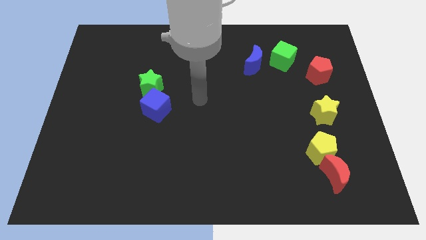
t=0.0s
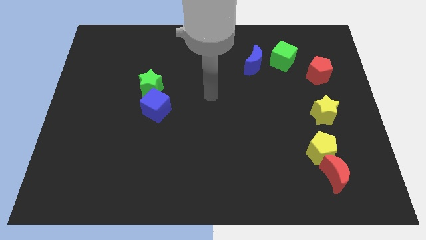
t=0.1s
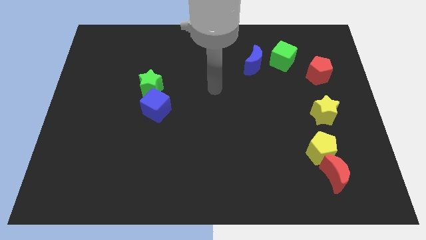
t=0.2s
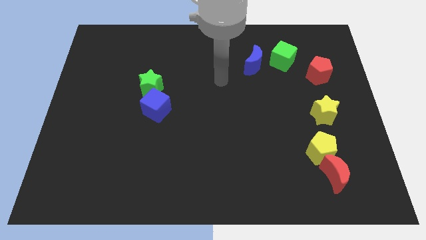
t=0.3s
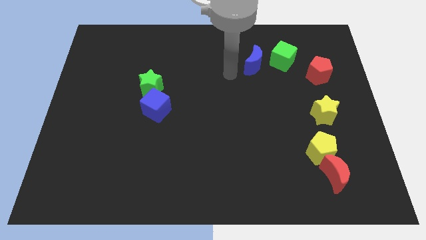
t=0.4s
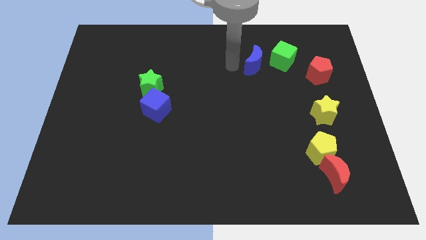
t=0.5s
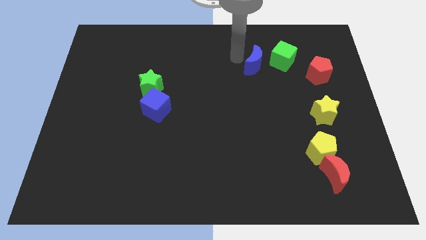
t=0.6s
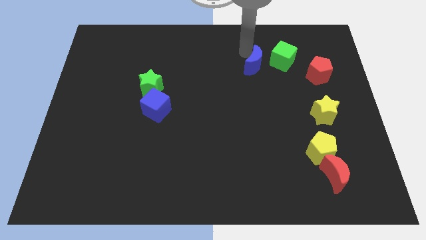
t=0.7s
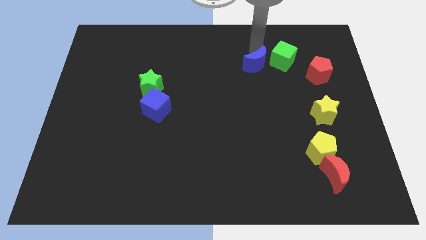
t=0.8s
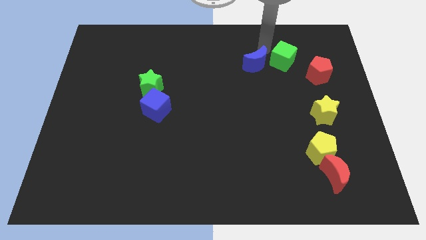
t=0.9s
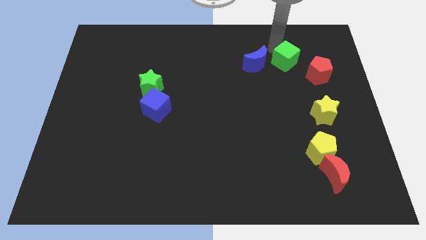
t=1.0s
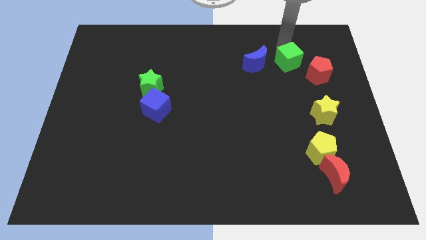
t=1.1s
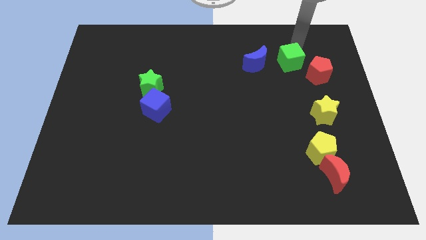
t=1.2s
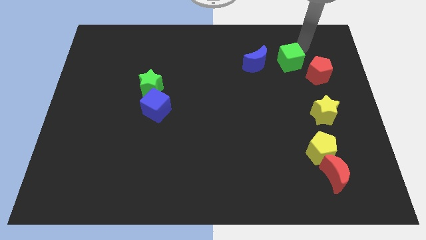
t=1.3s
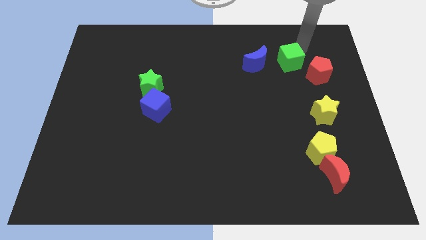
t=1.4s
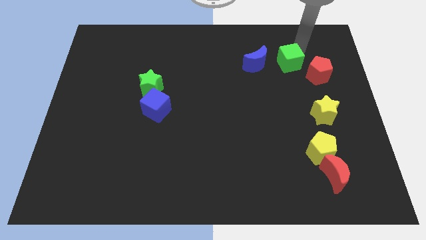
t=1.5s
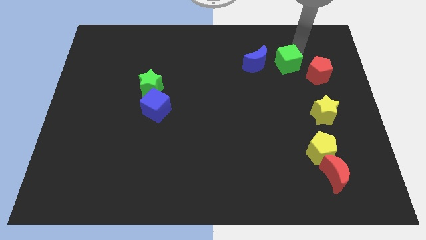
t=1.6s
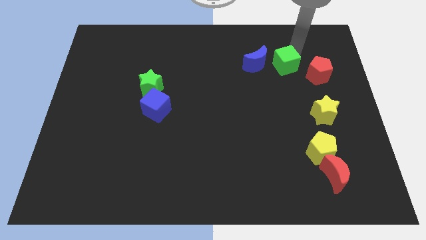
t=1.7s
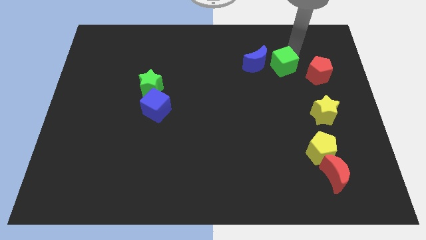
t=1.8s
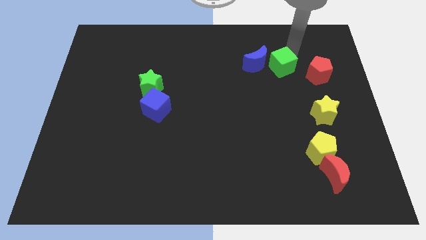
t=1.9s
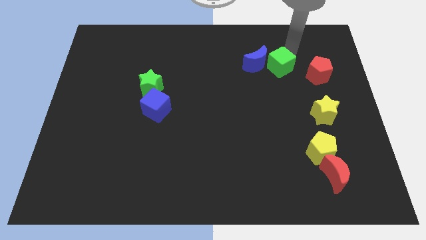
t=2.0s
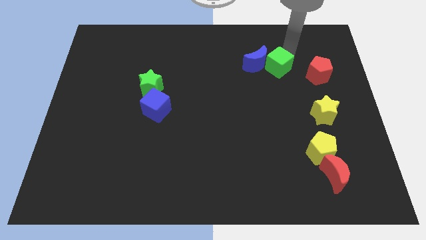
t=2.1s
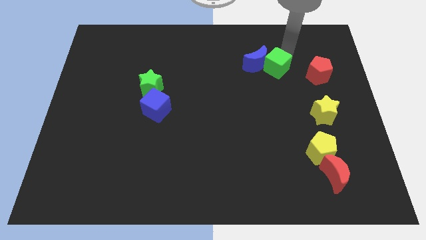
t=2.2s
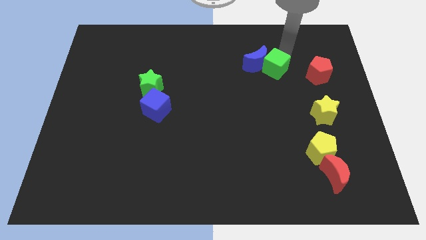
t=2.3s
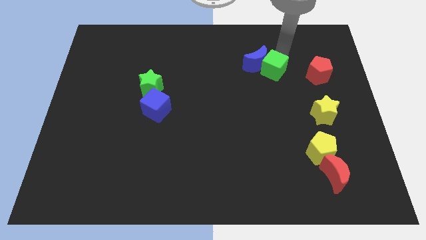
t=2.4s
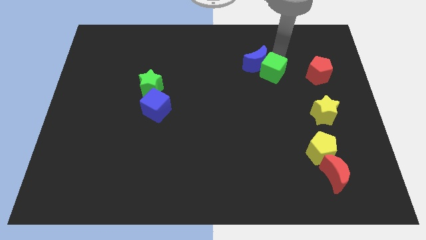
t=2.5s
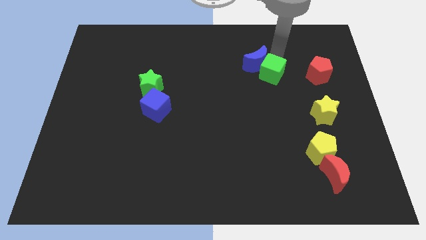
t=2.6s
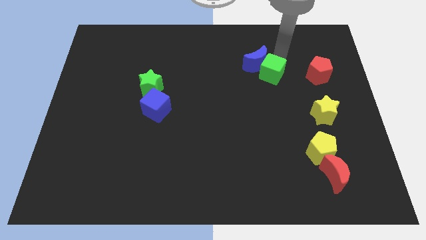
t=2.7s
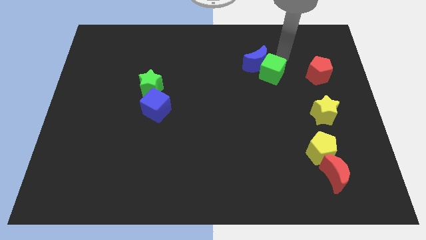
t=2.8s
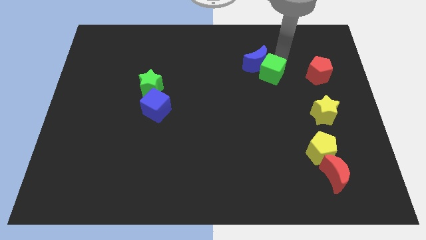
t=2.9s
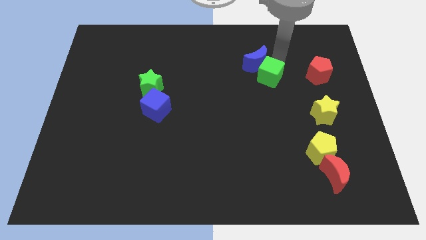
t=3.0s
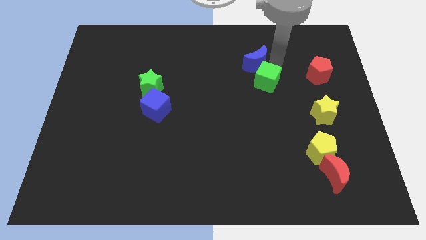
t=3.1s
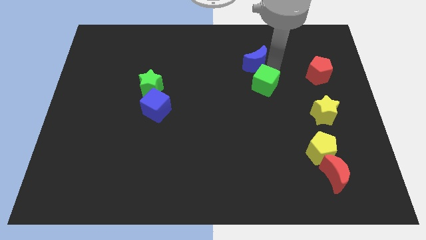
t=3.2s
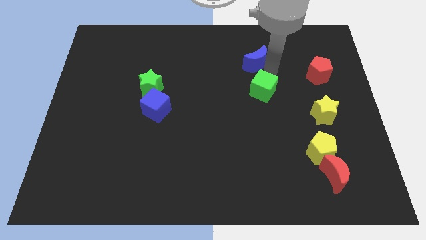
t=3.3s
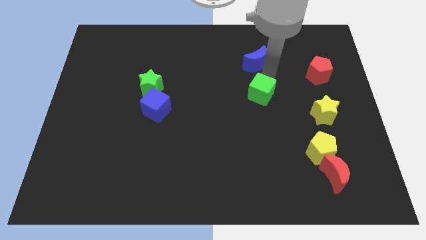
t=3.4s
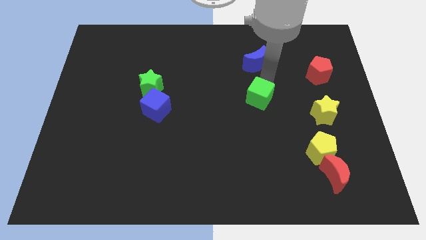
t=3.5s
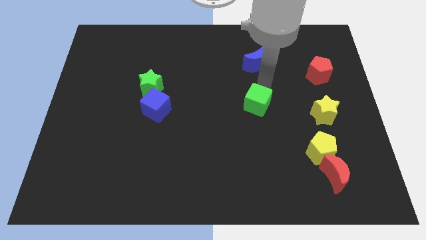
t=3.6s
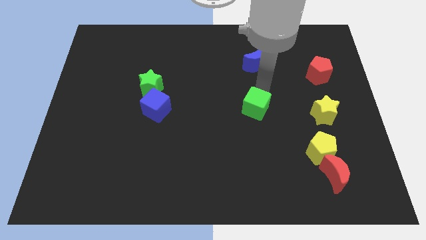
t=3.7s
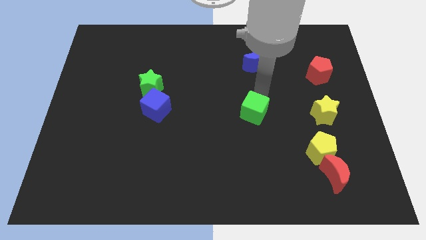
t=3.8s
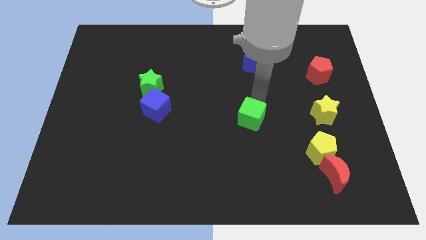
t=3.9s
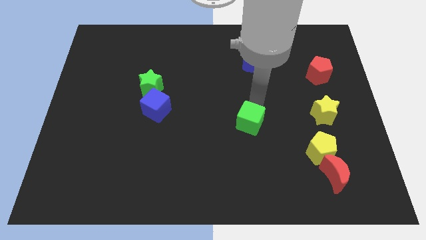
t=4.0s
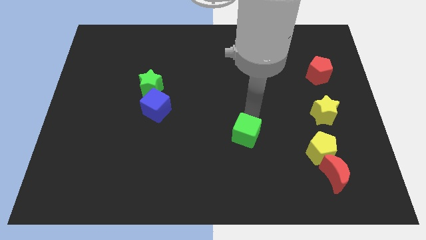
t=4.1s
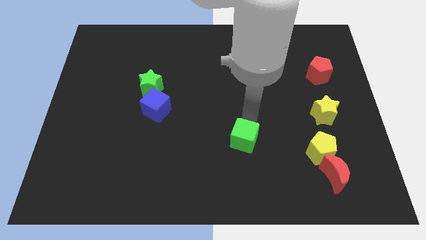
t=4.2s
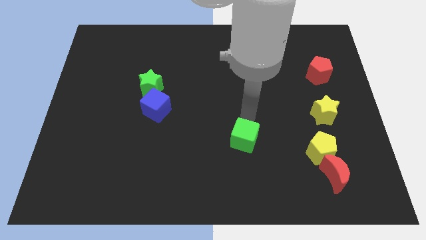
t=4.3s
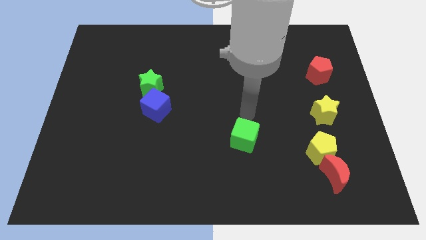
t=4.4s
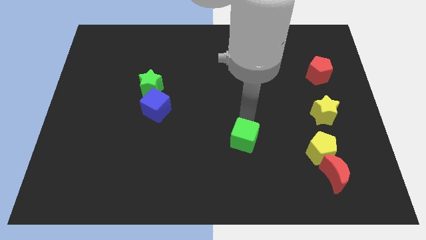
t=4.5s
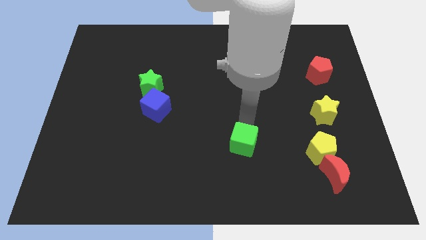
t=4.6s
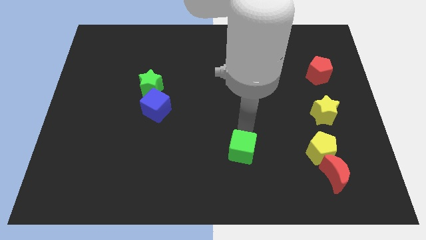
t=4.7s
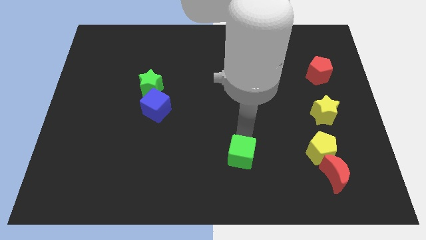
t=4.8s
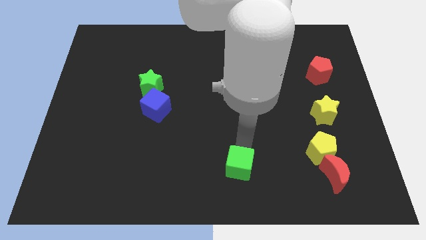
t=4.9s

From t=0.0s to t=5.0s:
push the green cube to the bottom side

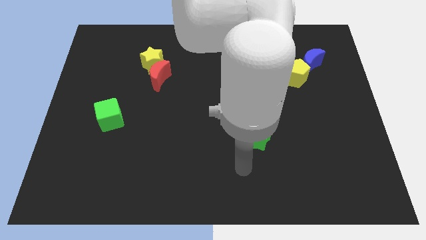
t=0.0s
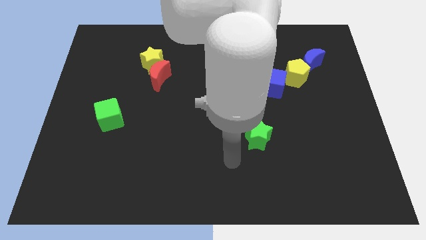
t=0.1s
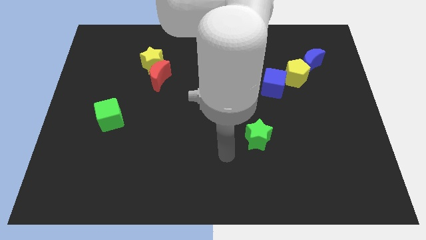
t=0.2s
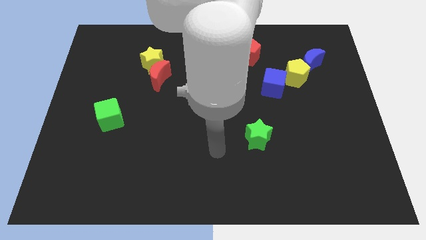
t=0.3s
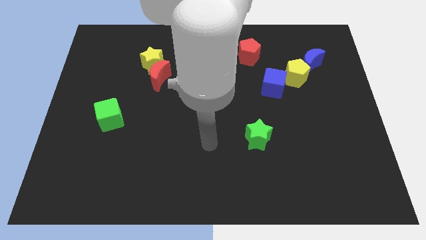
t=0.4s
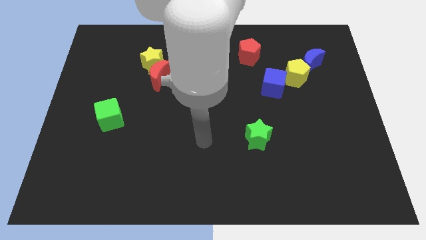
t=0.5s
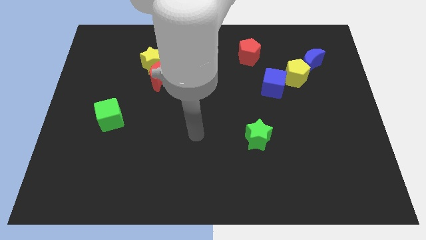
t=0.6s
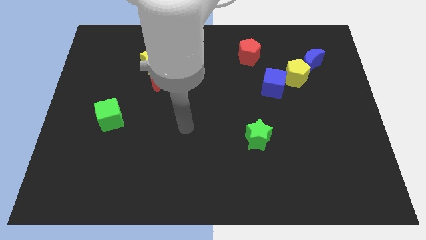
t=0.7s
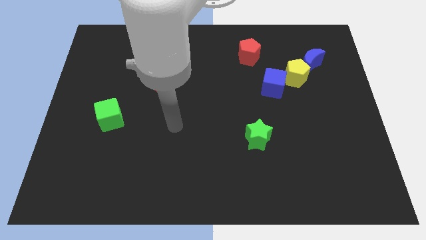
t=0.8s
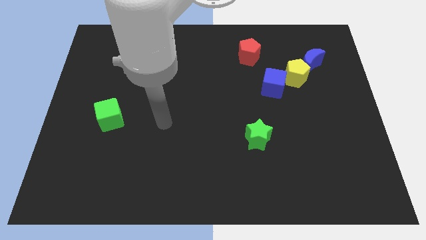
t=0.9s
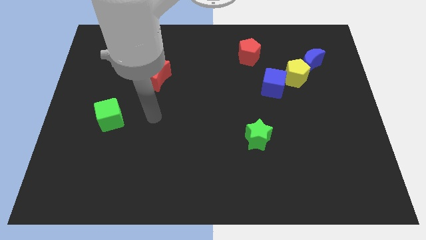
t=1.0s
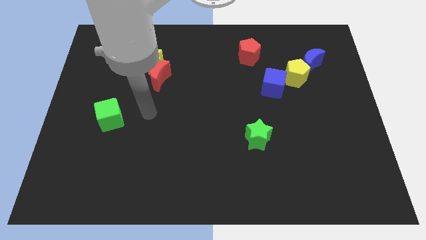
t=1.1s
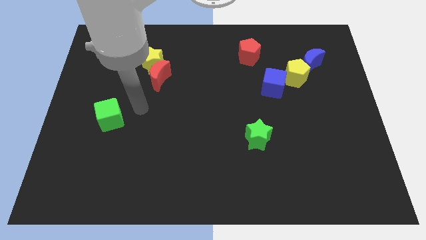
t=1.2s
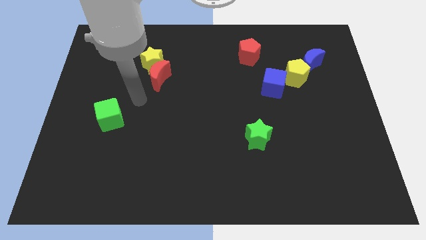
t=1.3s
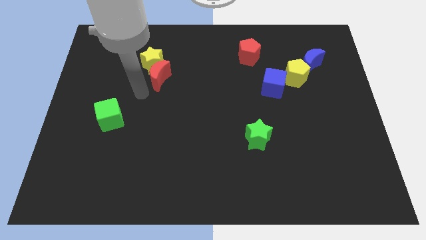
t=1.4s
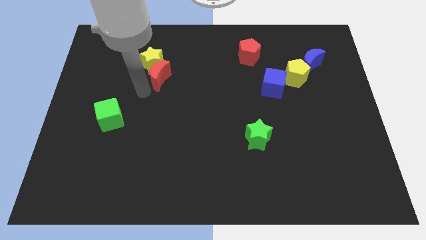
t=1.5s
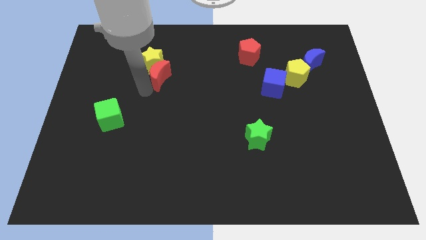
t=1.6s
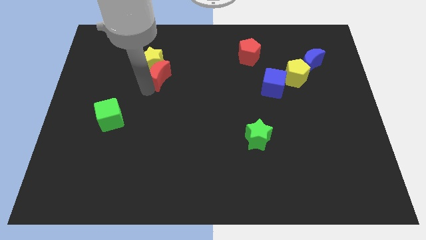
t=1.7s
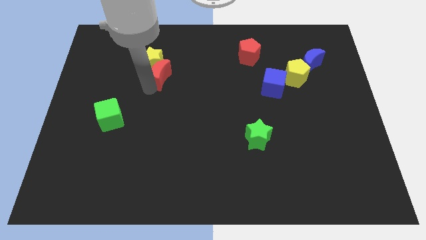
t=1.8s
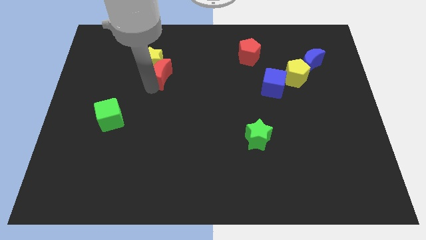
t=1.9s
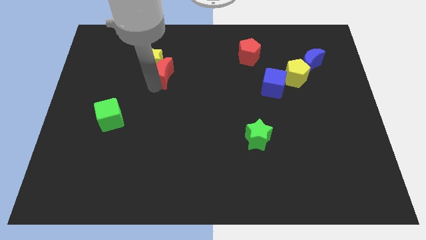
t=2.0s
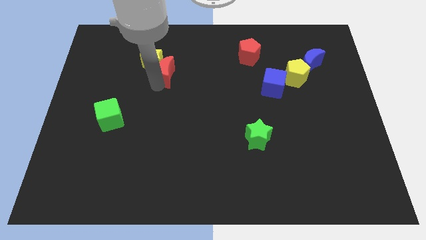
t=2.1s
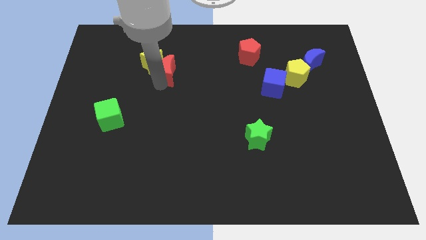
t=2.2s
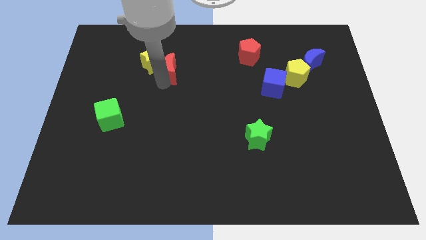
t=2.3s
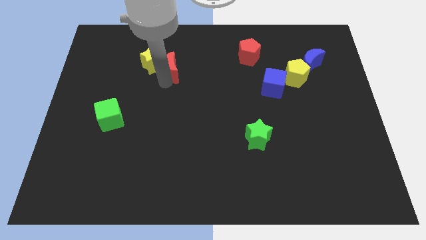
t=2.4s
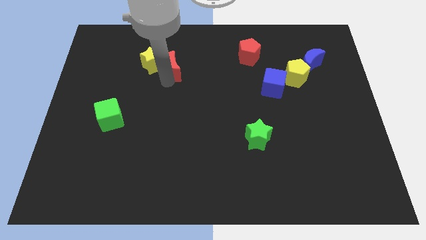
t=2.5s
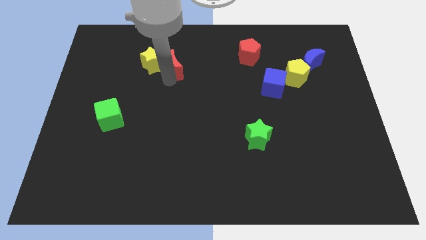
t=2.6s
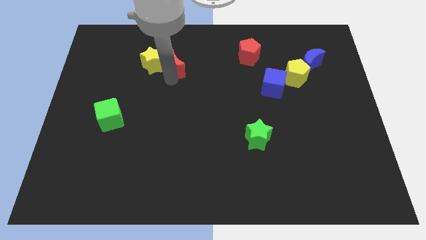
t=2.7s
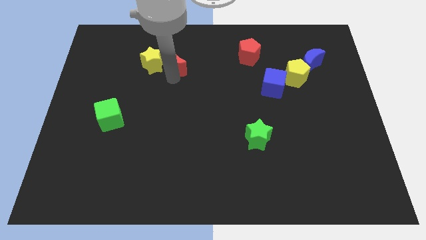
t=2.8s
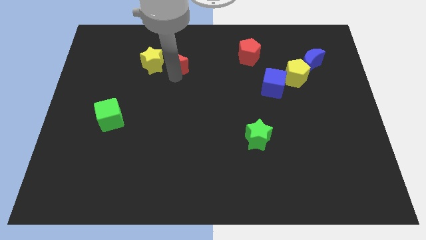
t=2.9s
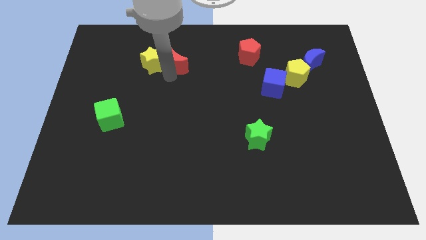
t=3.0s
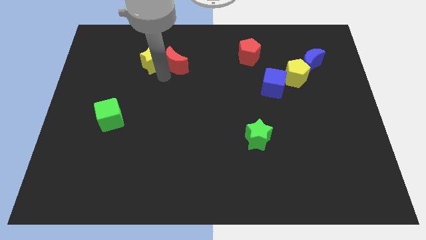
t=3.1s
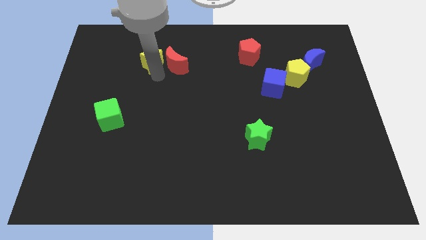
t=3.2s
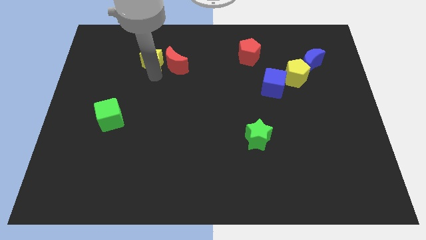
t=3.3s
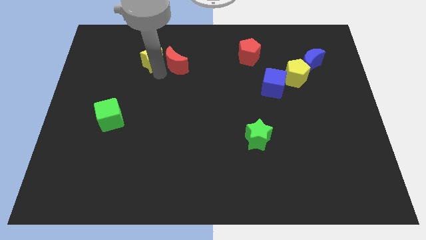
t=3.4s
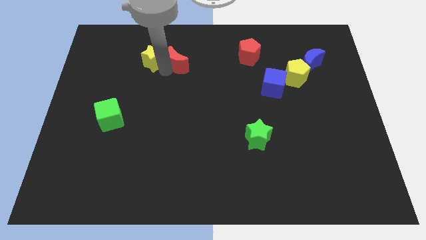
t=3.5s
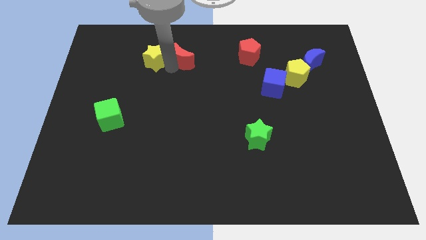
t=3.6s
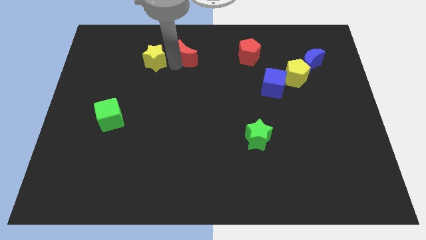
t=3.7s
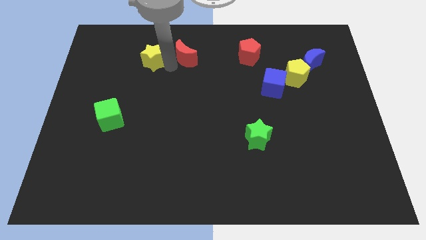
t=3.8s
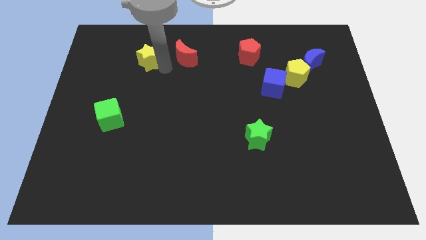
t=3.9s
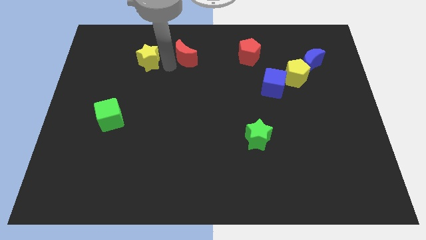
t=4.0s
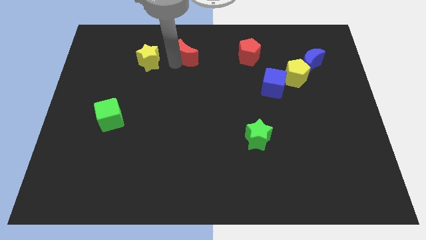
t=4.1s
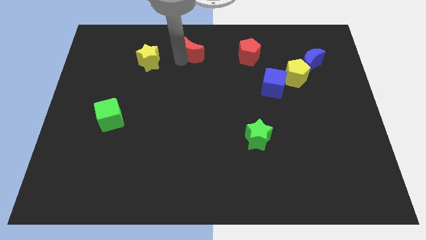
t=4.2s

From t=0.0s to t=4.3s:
put the red moon to the top
